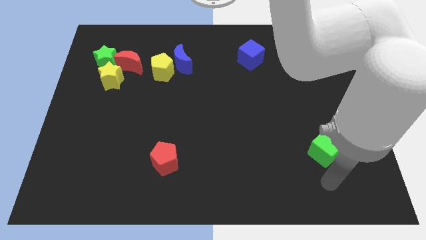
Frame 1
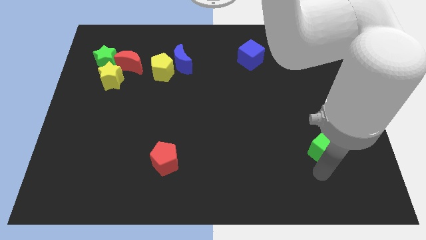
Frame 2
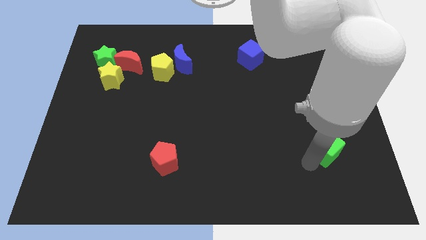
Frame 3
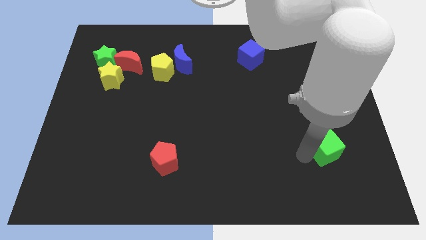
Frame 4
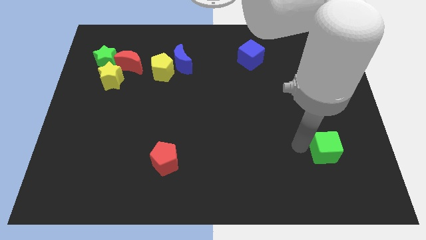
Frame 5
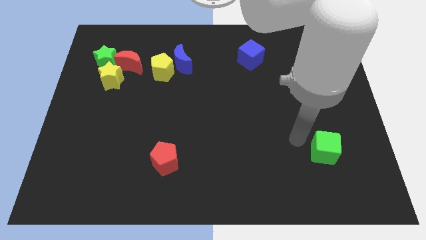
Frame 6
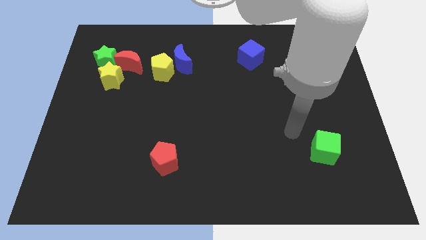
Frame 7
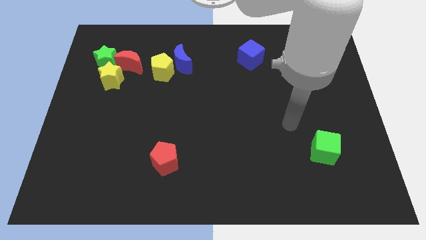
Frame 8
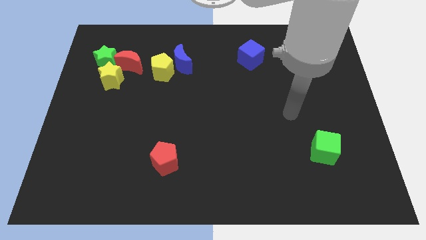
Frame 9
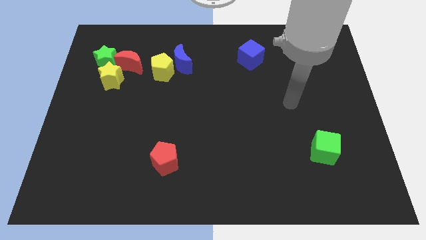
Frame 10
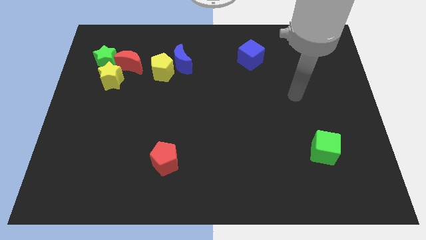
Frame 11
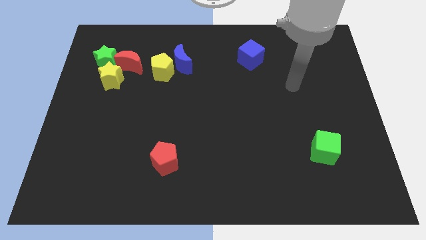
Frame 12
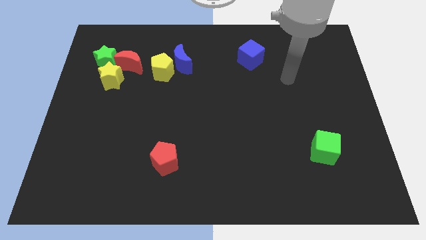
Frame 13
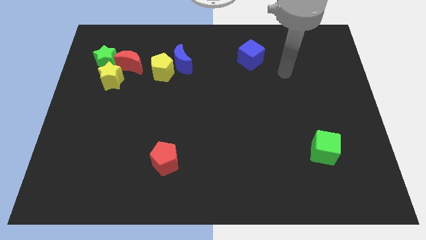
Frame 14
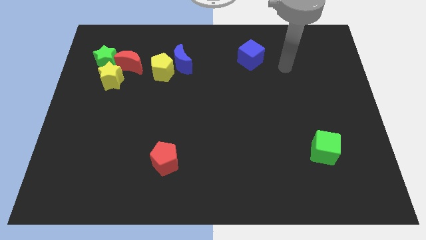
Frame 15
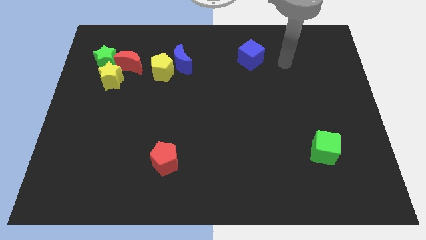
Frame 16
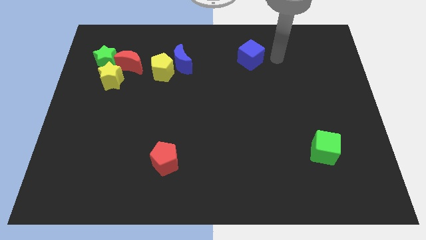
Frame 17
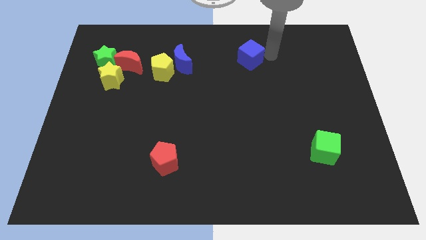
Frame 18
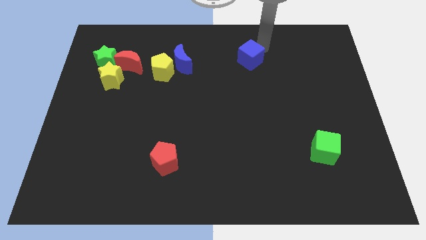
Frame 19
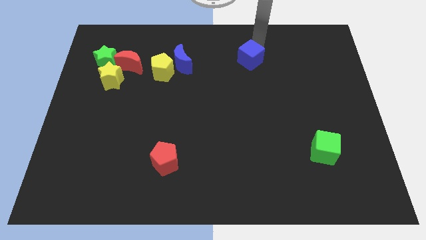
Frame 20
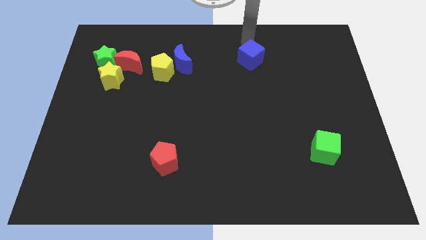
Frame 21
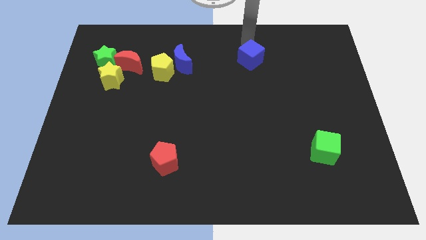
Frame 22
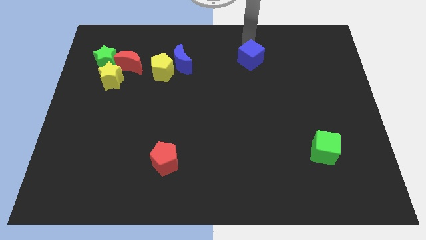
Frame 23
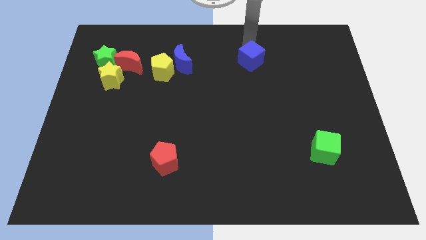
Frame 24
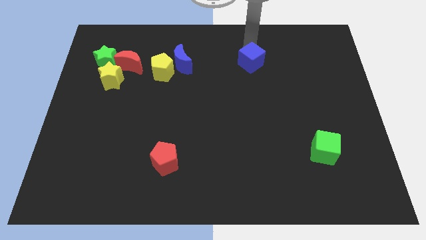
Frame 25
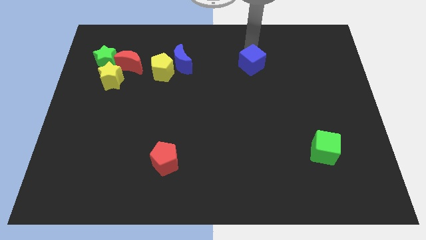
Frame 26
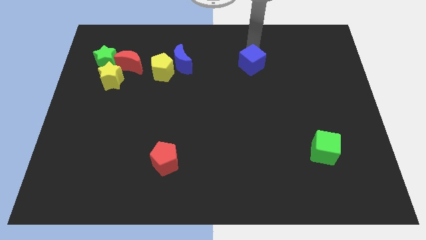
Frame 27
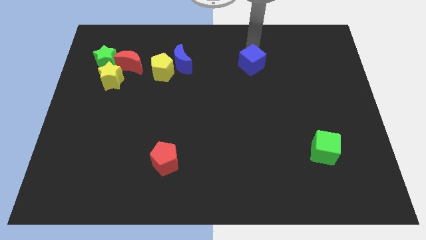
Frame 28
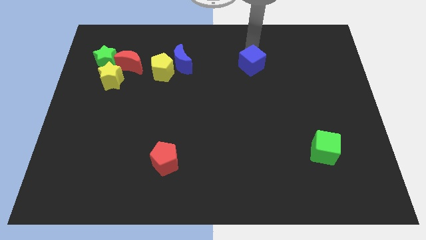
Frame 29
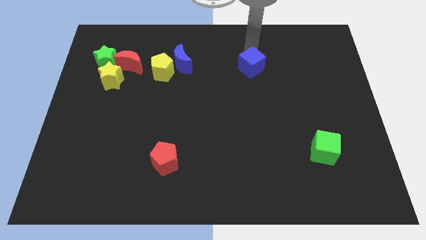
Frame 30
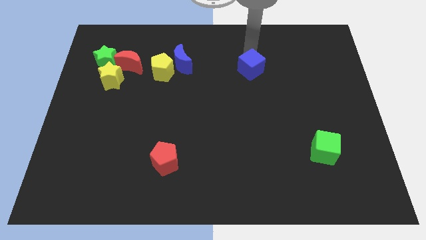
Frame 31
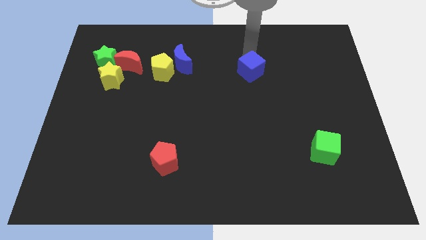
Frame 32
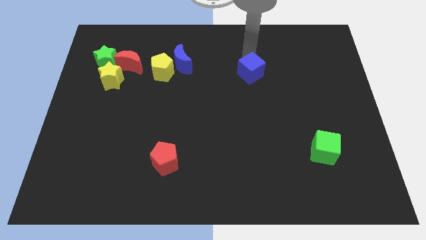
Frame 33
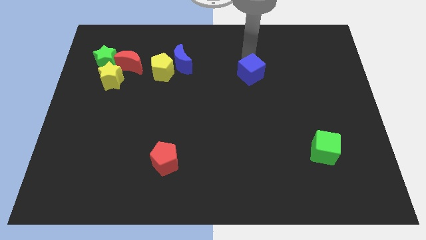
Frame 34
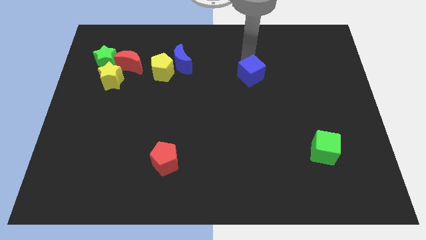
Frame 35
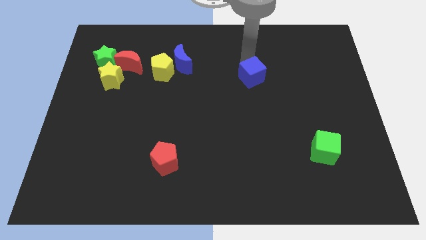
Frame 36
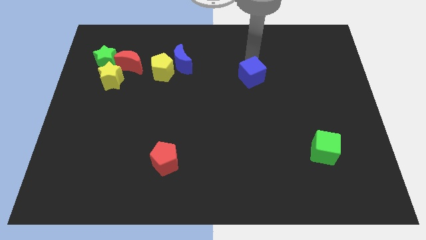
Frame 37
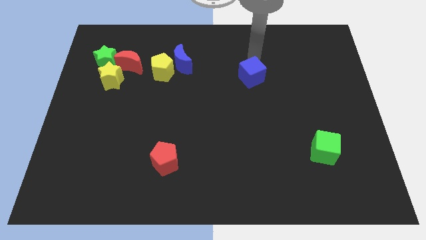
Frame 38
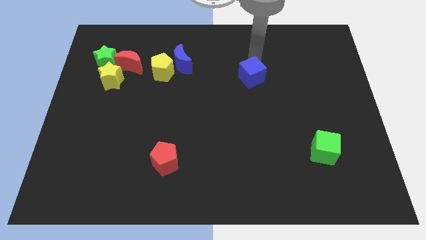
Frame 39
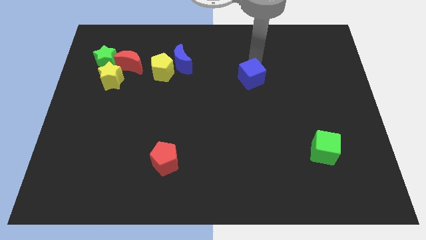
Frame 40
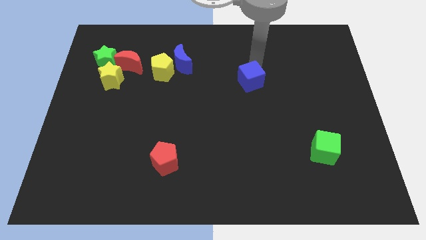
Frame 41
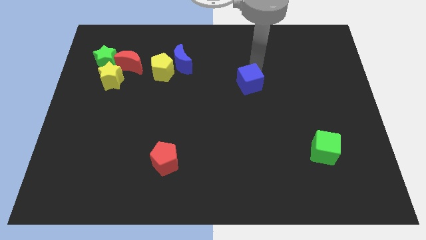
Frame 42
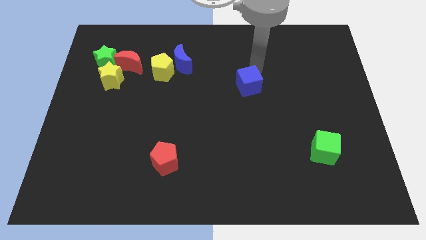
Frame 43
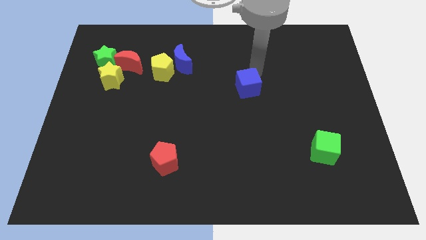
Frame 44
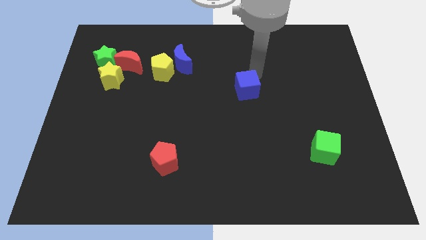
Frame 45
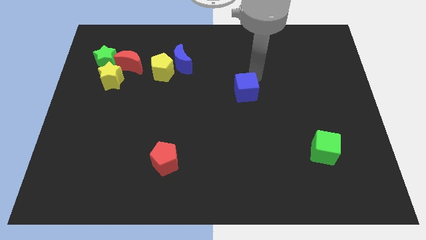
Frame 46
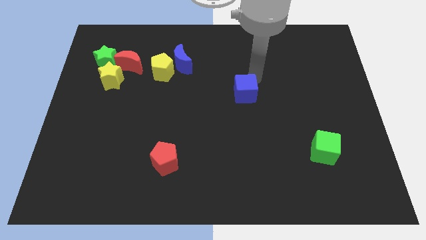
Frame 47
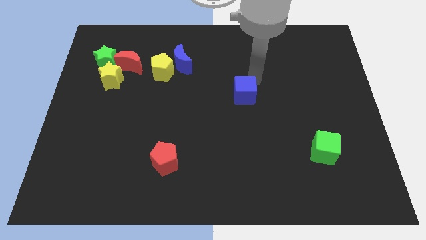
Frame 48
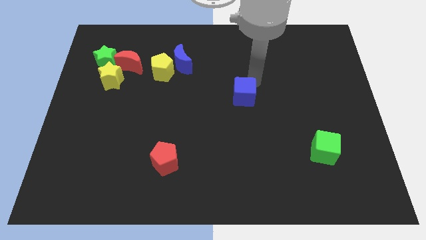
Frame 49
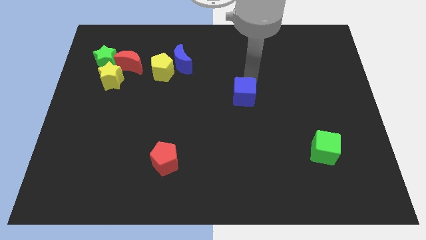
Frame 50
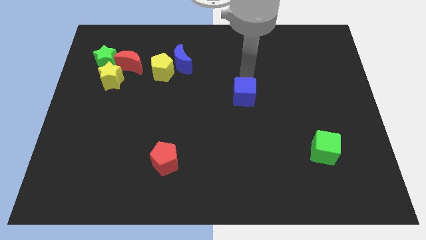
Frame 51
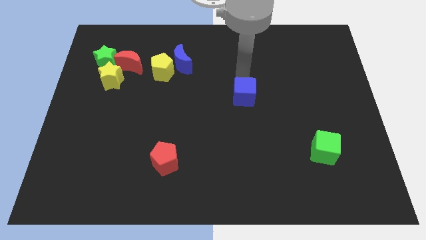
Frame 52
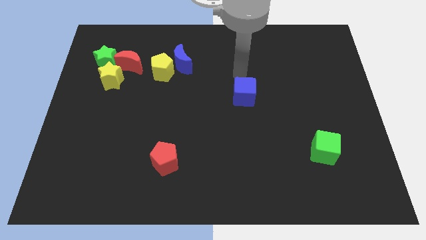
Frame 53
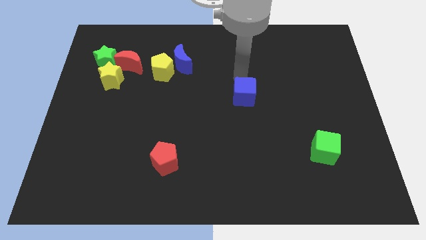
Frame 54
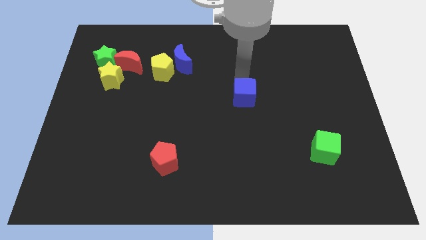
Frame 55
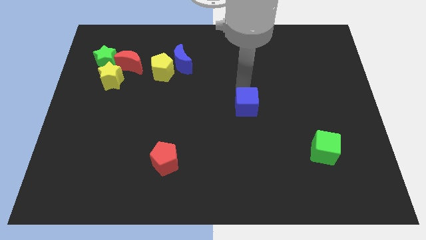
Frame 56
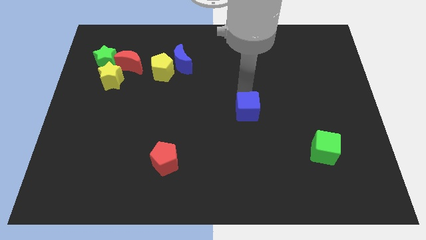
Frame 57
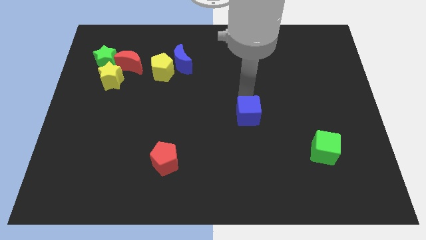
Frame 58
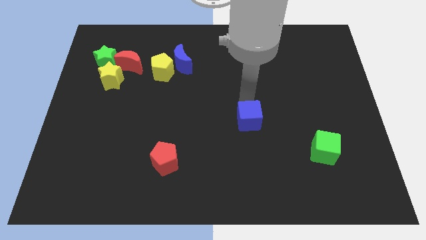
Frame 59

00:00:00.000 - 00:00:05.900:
slide the blue cube down

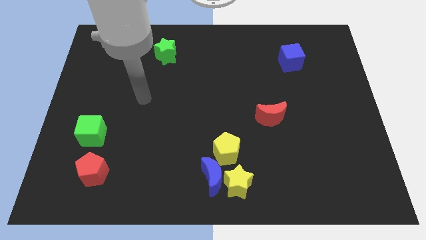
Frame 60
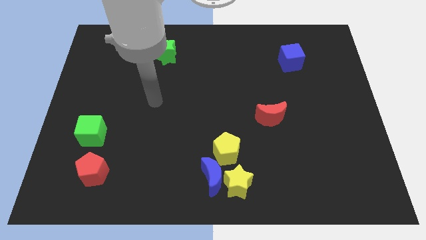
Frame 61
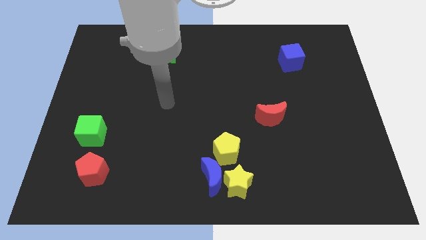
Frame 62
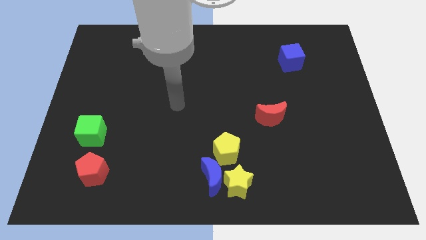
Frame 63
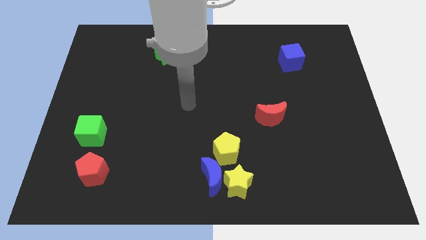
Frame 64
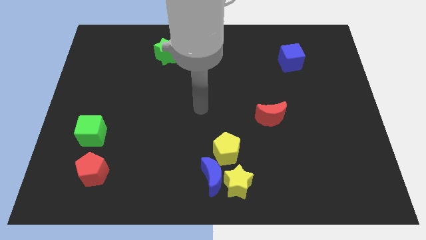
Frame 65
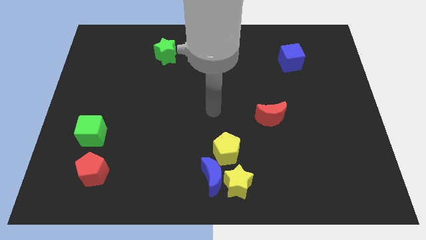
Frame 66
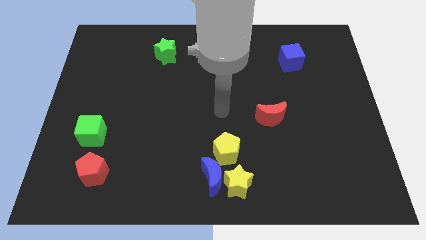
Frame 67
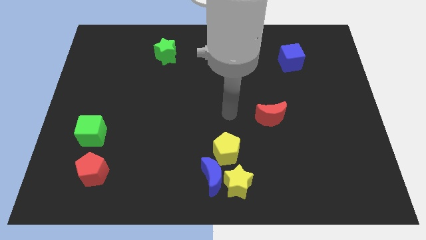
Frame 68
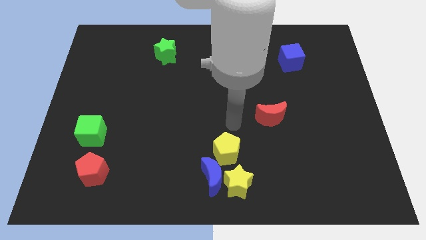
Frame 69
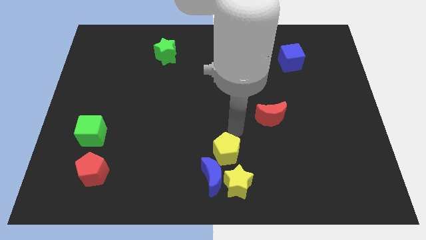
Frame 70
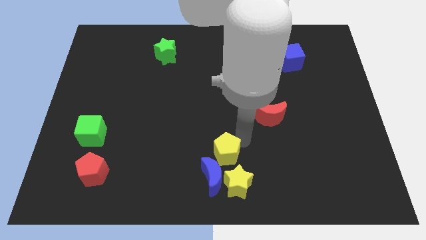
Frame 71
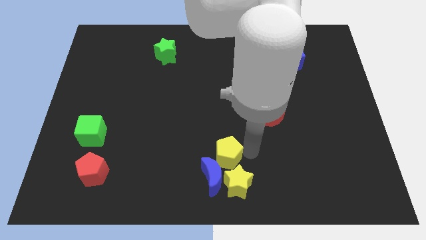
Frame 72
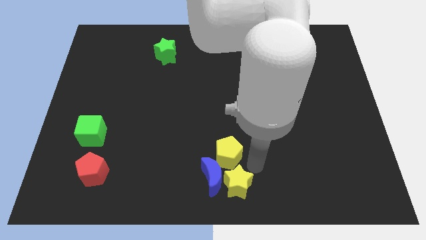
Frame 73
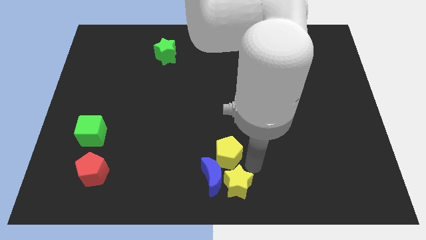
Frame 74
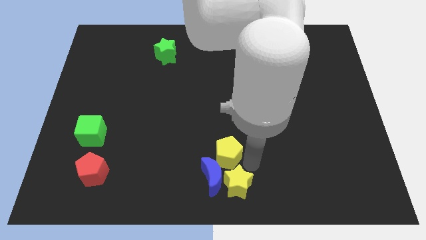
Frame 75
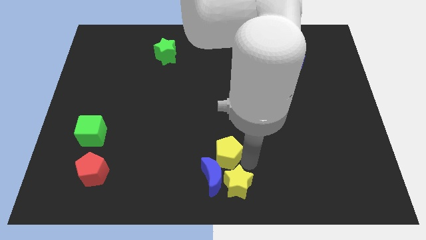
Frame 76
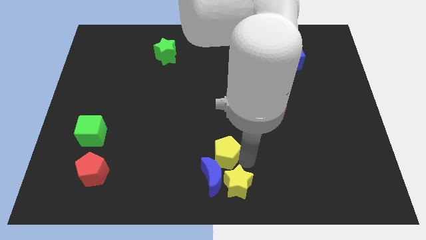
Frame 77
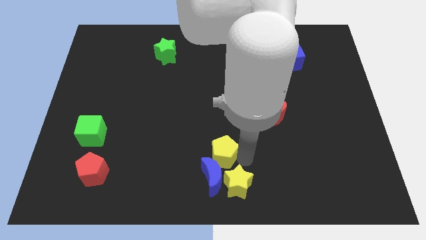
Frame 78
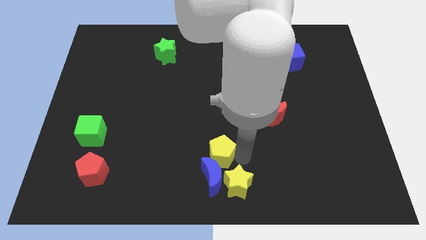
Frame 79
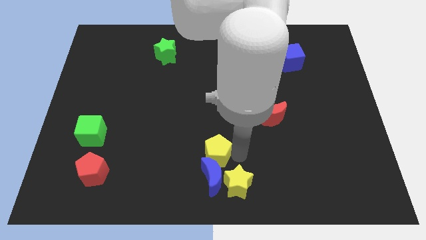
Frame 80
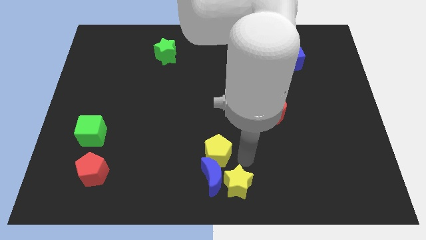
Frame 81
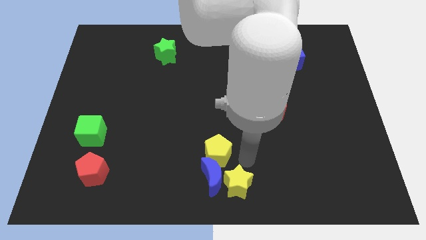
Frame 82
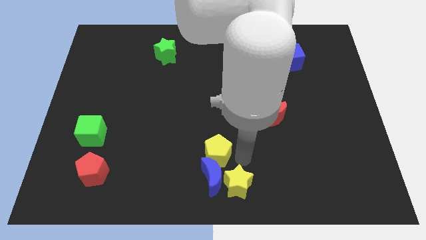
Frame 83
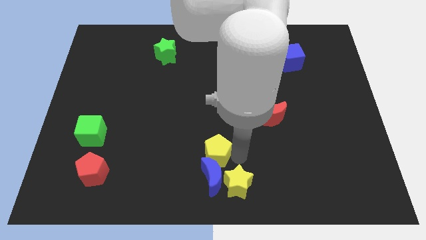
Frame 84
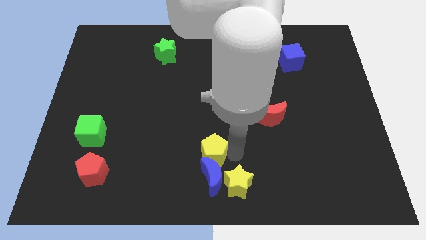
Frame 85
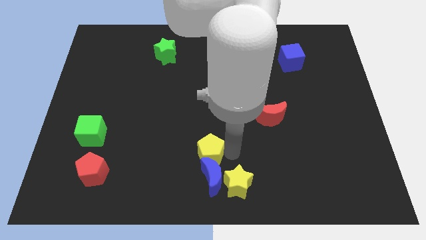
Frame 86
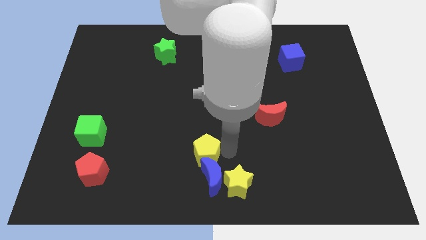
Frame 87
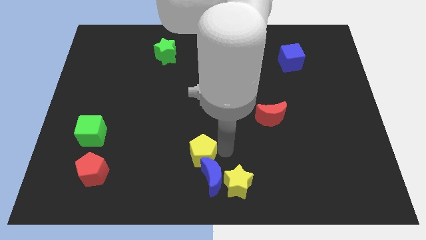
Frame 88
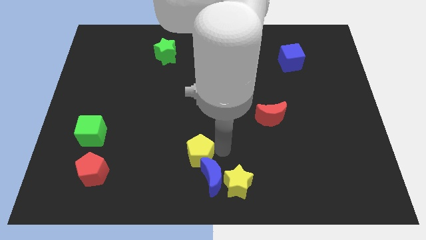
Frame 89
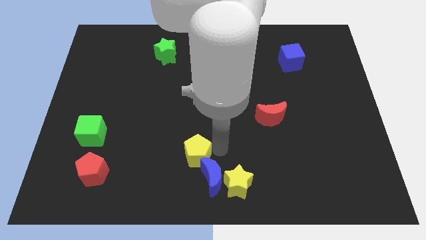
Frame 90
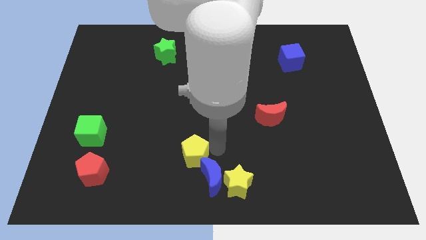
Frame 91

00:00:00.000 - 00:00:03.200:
slightly move the yellow pentagon left
